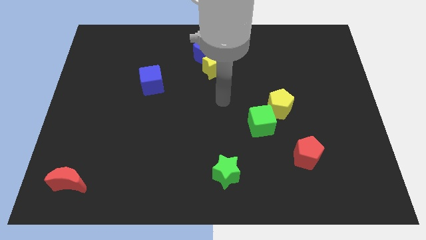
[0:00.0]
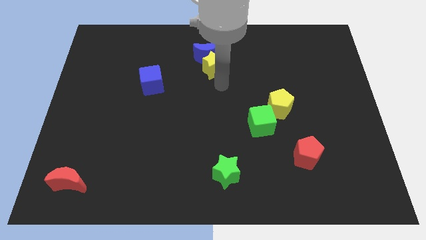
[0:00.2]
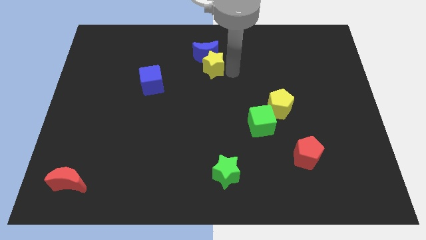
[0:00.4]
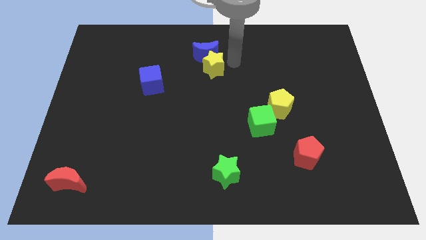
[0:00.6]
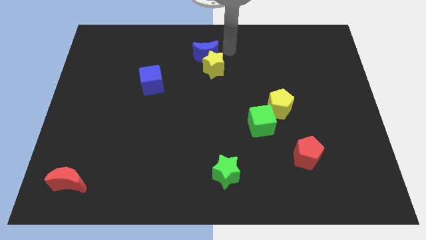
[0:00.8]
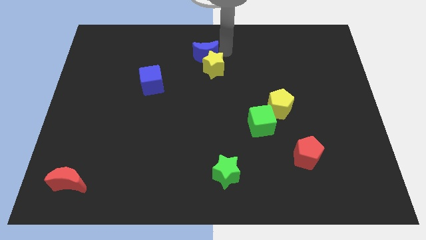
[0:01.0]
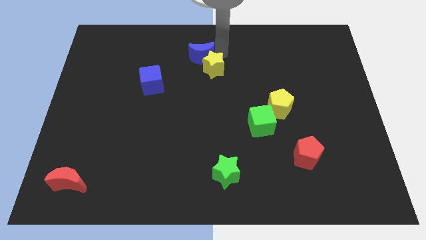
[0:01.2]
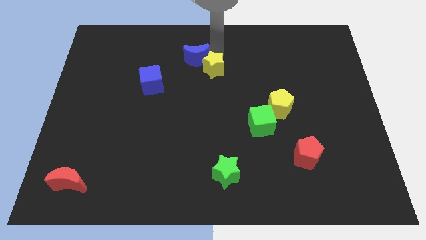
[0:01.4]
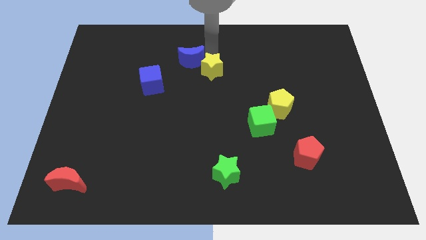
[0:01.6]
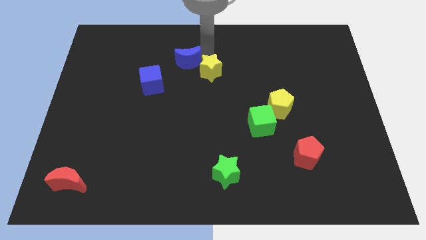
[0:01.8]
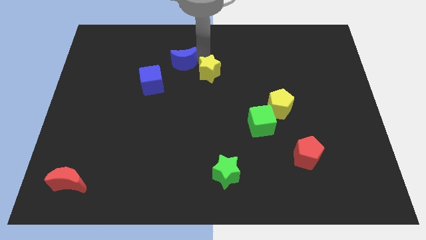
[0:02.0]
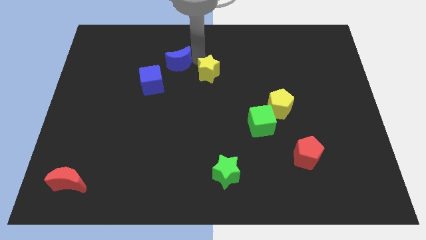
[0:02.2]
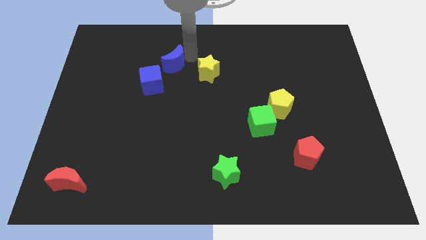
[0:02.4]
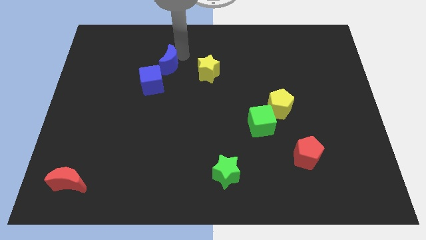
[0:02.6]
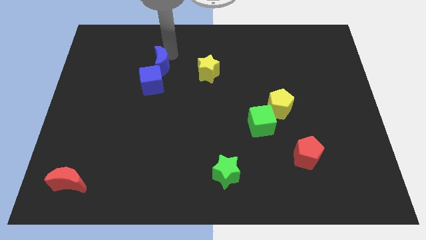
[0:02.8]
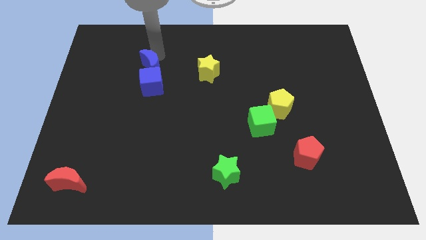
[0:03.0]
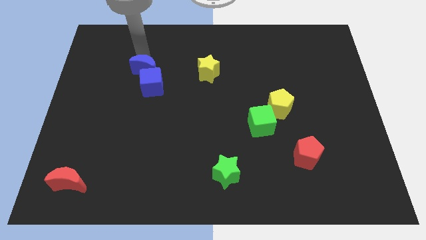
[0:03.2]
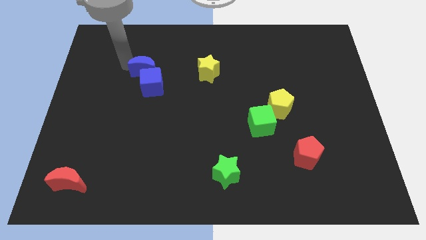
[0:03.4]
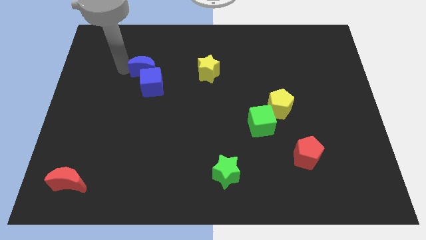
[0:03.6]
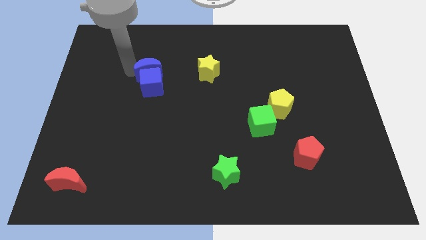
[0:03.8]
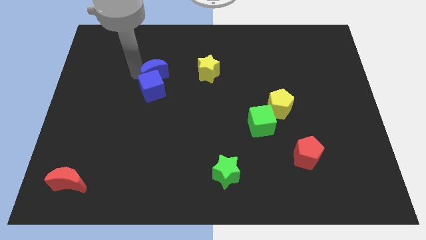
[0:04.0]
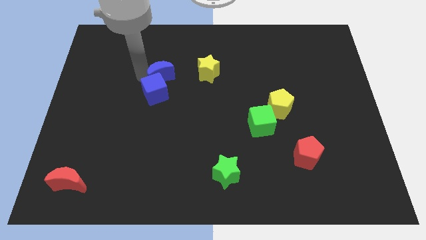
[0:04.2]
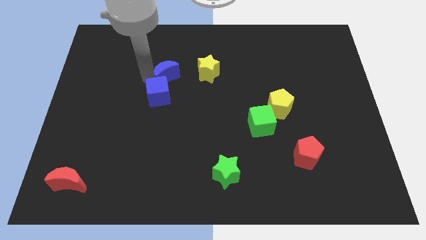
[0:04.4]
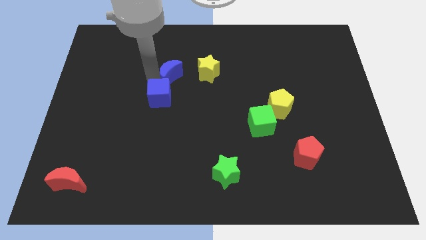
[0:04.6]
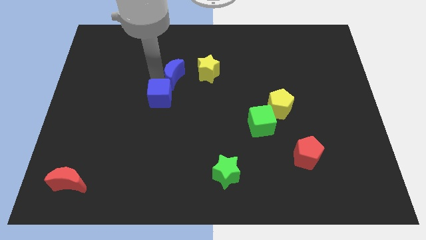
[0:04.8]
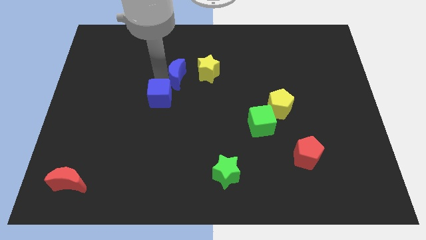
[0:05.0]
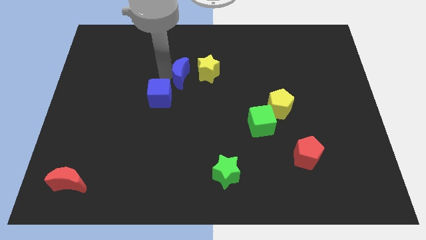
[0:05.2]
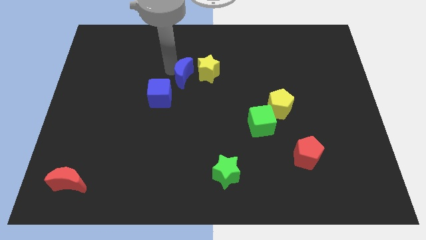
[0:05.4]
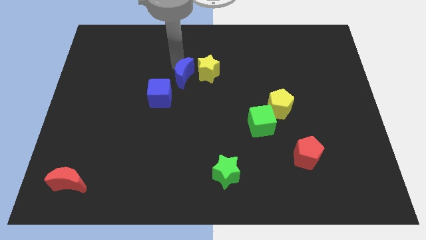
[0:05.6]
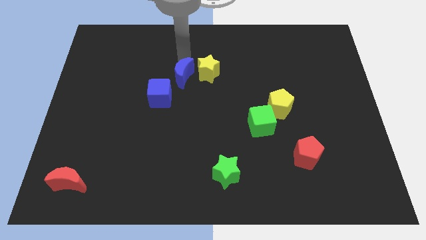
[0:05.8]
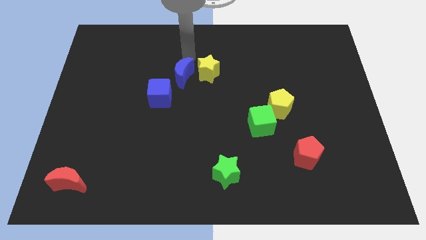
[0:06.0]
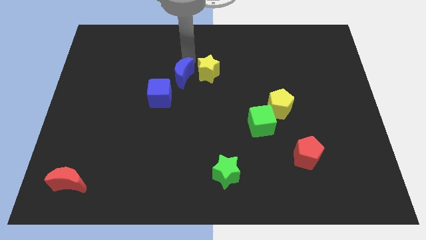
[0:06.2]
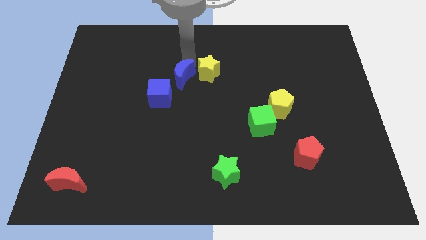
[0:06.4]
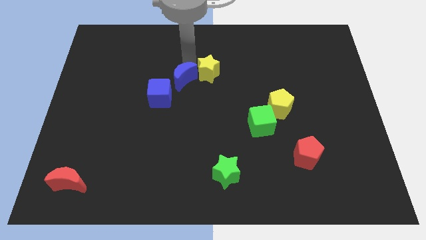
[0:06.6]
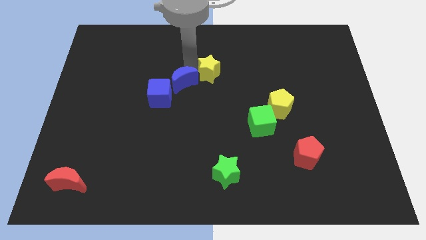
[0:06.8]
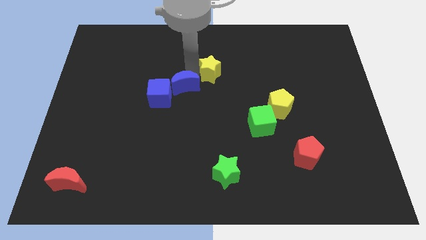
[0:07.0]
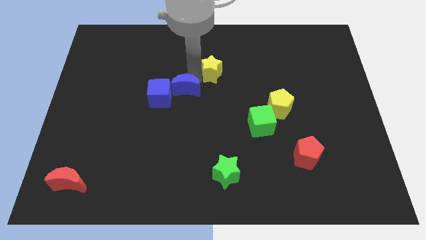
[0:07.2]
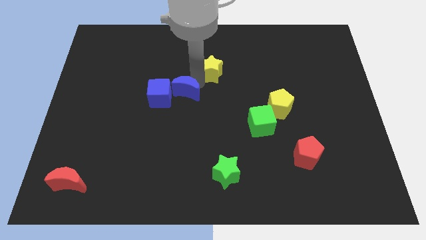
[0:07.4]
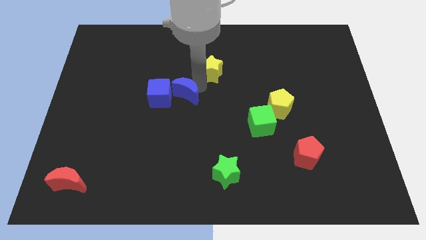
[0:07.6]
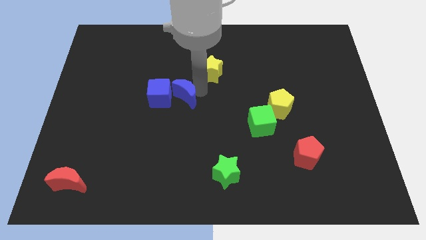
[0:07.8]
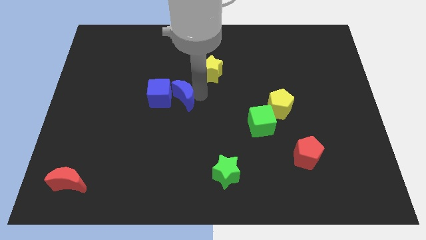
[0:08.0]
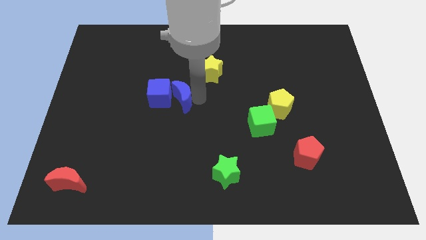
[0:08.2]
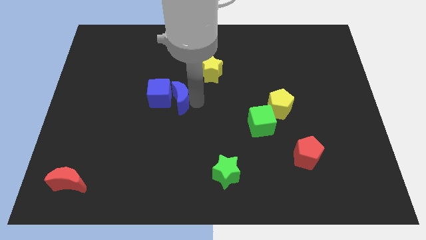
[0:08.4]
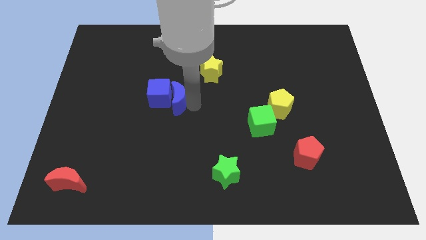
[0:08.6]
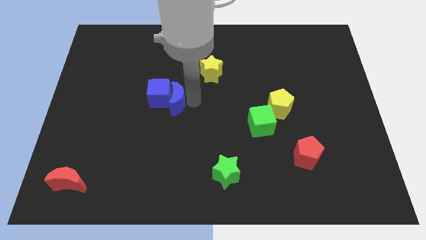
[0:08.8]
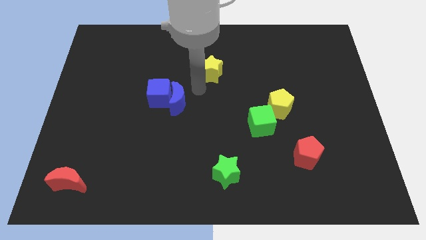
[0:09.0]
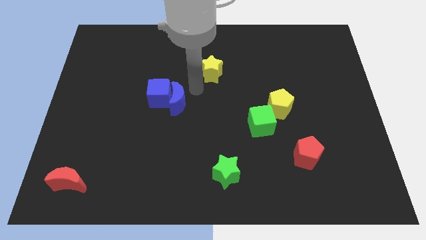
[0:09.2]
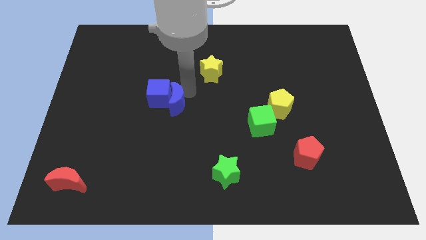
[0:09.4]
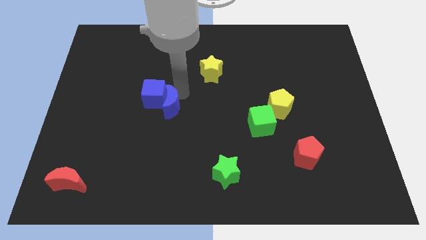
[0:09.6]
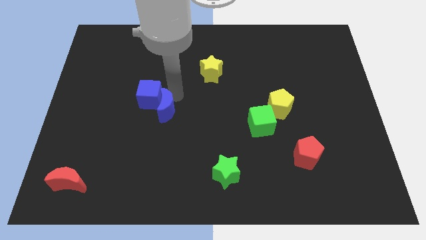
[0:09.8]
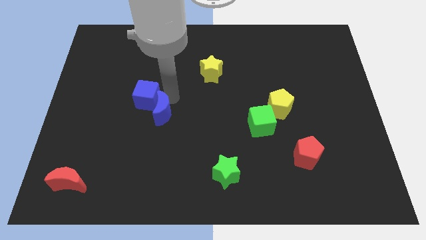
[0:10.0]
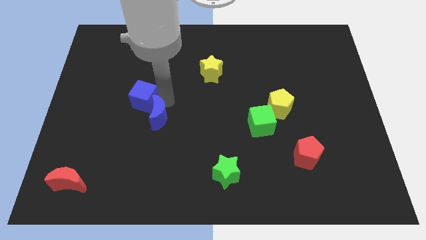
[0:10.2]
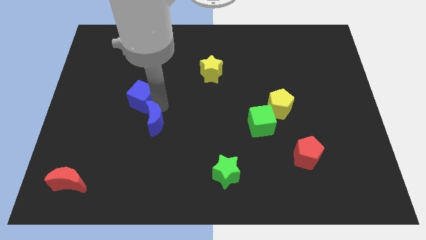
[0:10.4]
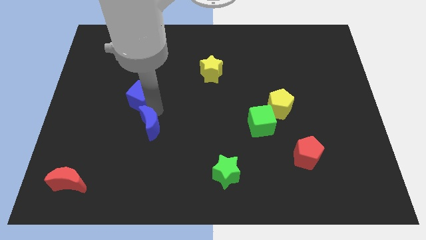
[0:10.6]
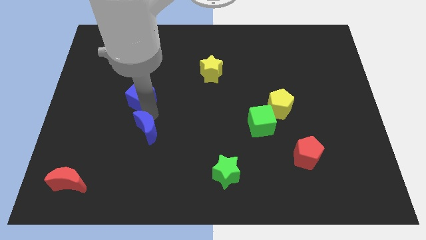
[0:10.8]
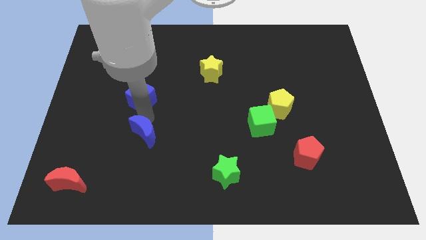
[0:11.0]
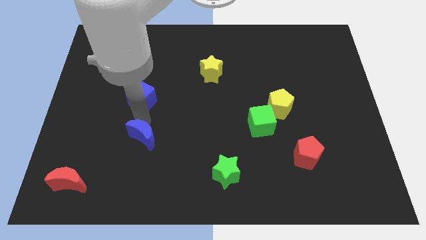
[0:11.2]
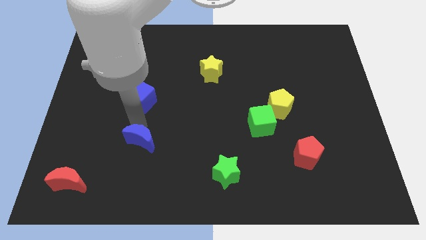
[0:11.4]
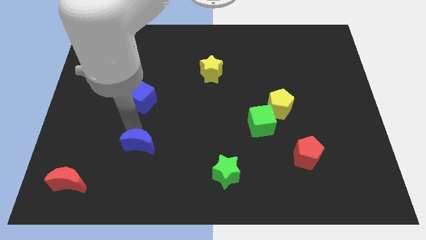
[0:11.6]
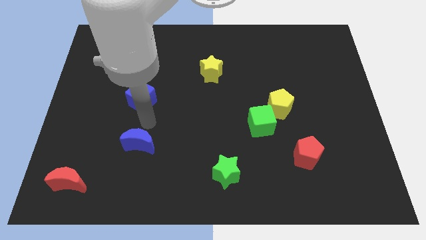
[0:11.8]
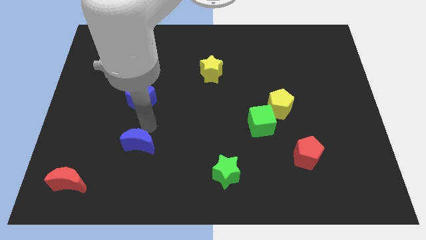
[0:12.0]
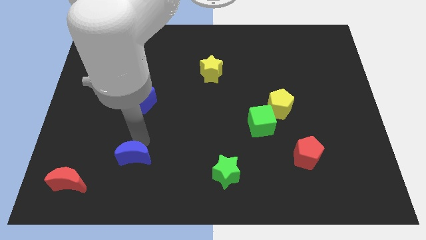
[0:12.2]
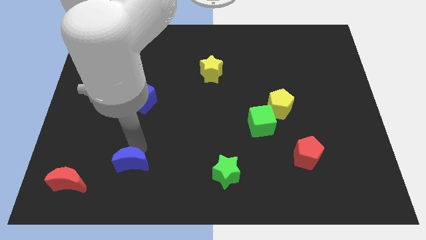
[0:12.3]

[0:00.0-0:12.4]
put the blue moon to the right of the red moon

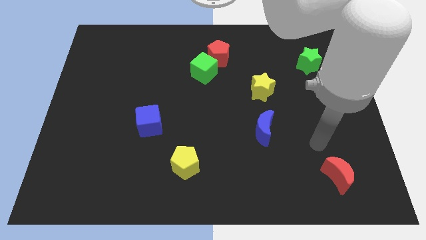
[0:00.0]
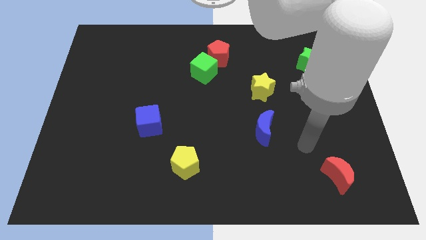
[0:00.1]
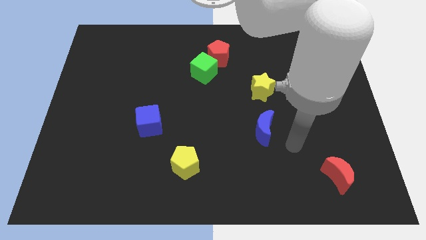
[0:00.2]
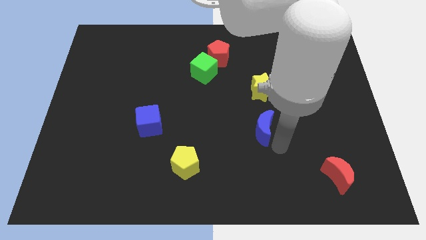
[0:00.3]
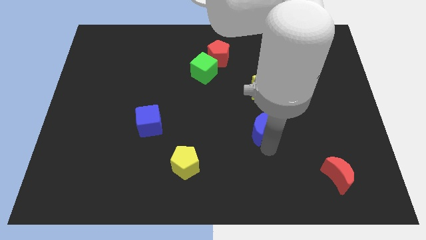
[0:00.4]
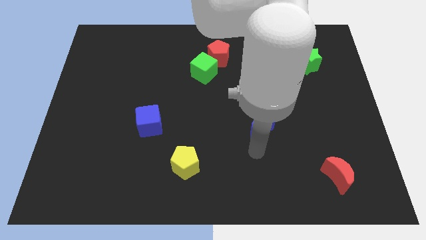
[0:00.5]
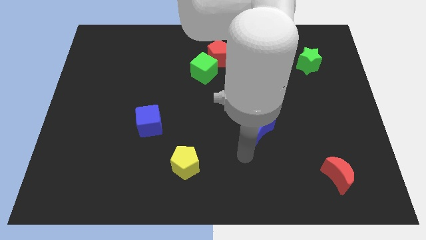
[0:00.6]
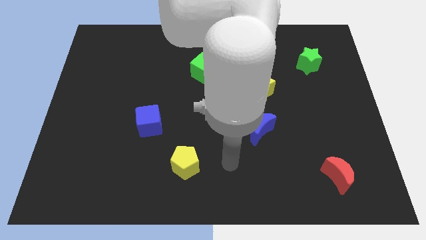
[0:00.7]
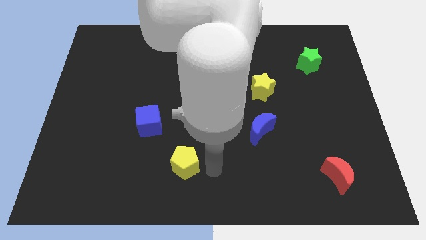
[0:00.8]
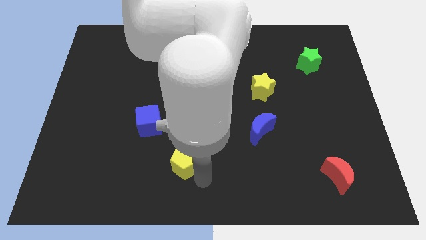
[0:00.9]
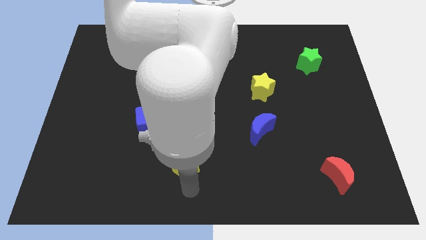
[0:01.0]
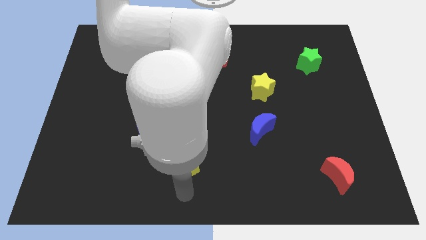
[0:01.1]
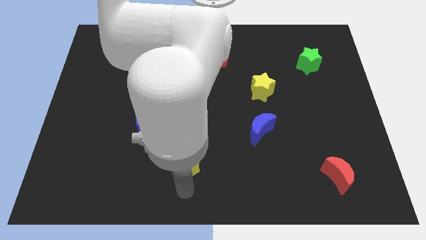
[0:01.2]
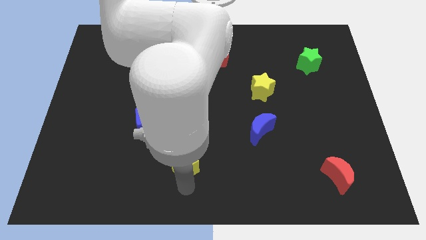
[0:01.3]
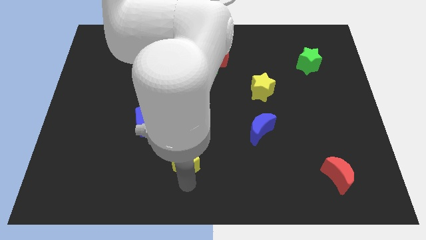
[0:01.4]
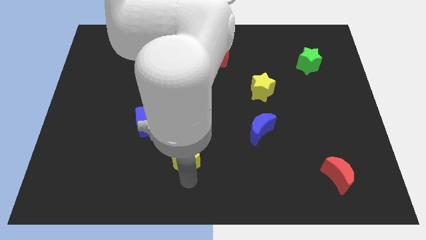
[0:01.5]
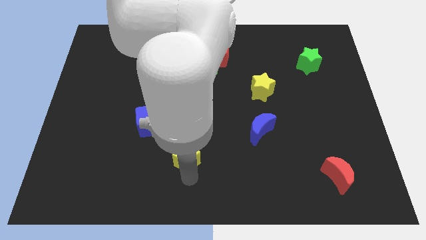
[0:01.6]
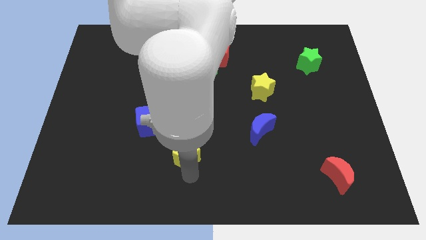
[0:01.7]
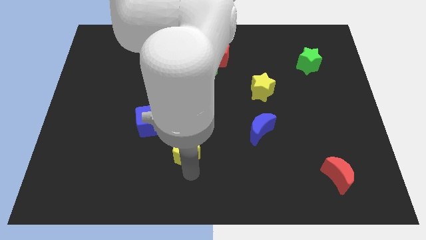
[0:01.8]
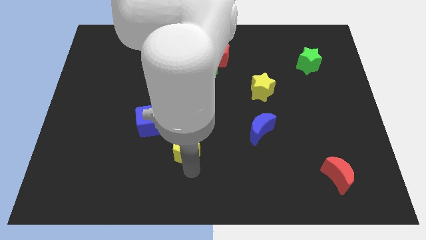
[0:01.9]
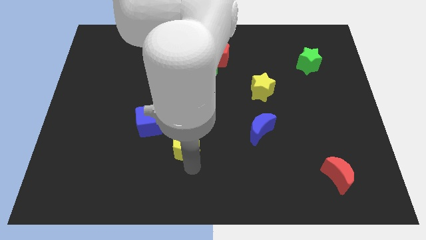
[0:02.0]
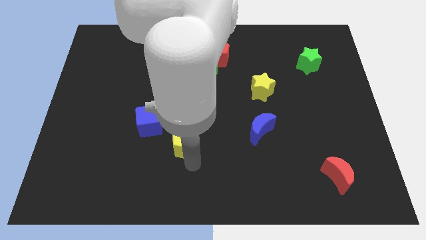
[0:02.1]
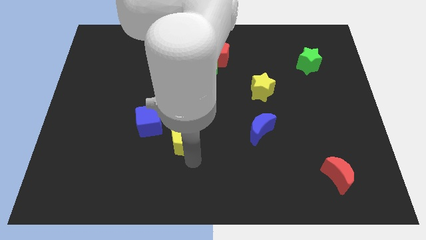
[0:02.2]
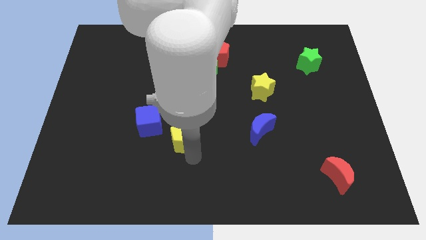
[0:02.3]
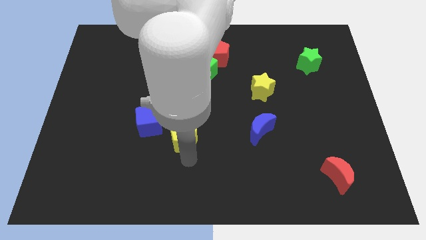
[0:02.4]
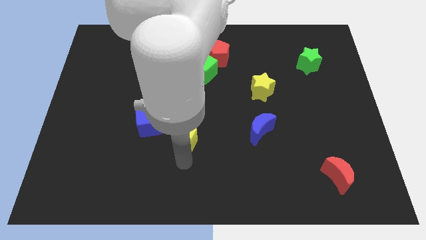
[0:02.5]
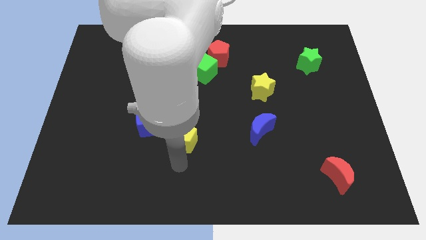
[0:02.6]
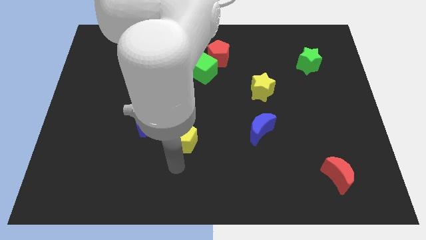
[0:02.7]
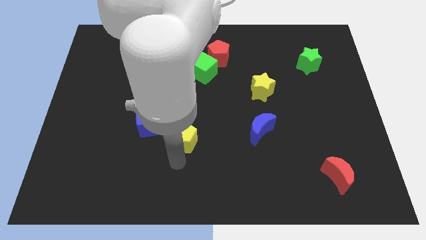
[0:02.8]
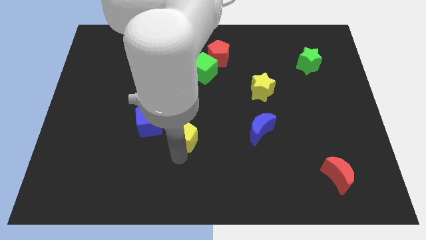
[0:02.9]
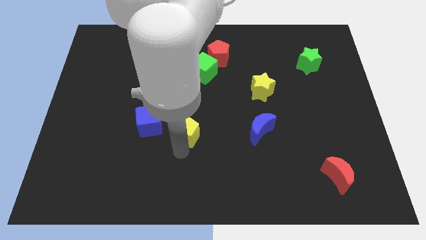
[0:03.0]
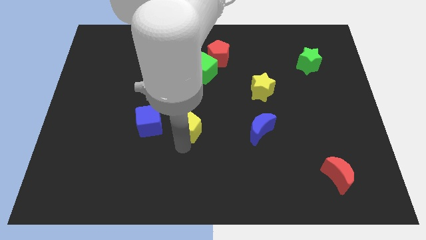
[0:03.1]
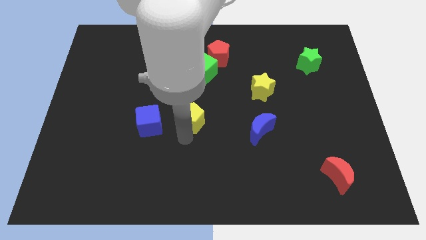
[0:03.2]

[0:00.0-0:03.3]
move the yellow pentagon below the green cube
